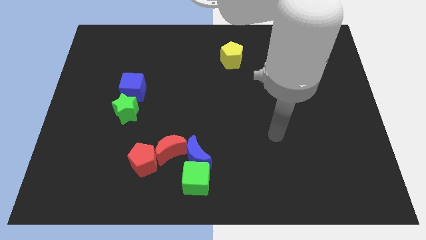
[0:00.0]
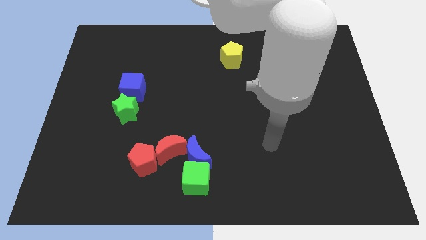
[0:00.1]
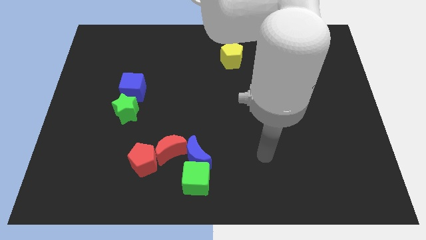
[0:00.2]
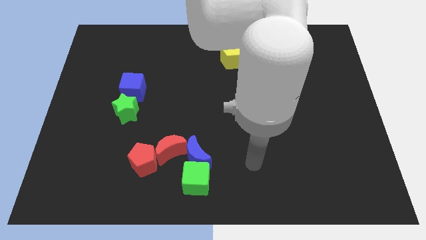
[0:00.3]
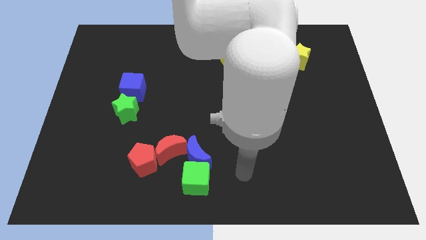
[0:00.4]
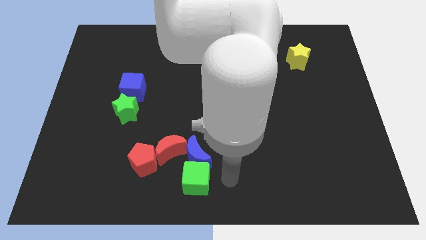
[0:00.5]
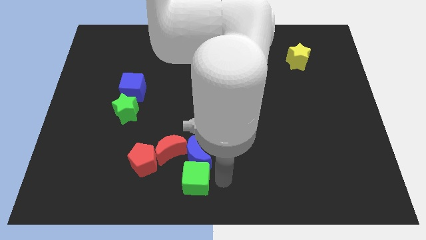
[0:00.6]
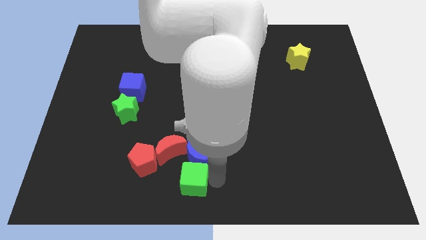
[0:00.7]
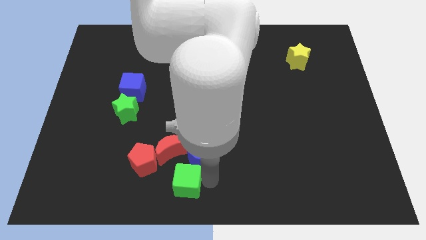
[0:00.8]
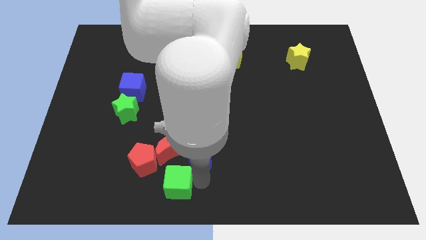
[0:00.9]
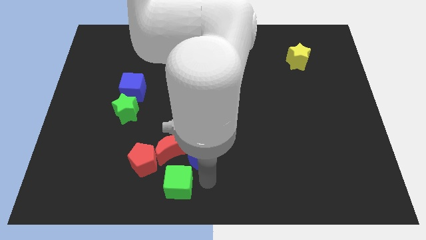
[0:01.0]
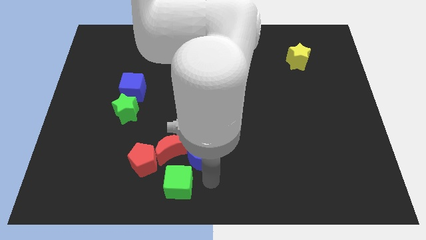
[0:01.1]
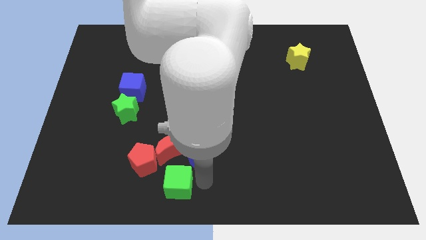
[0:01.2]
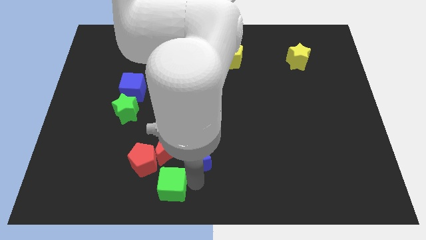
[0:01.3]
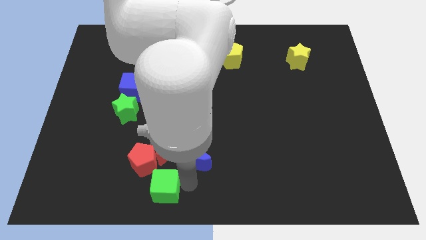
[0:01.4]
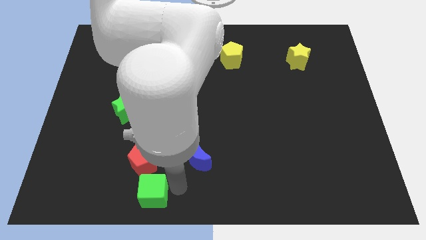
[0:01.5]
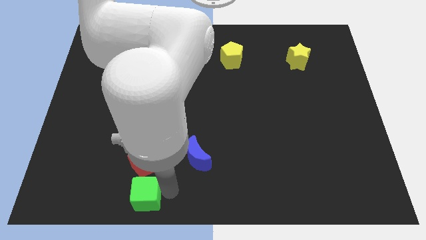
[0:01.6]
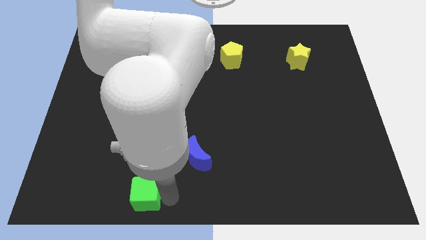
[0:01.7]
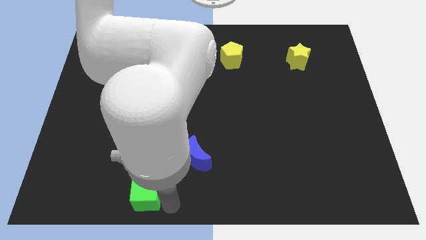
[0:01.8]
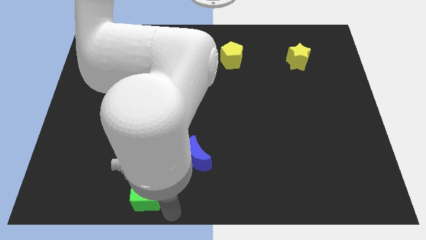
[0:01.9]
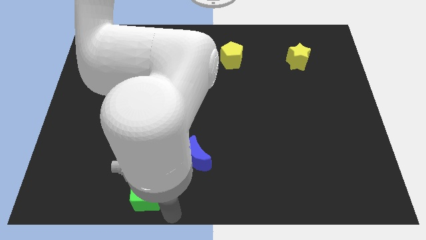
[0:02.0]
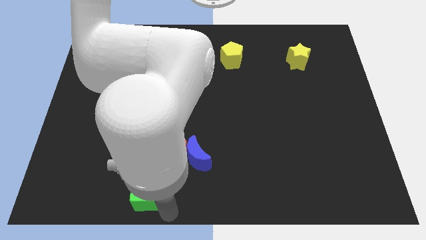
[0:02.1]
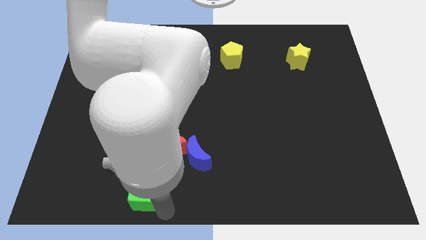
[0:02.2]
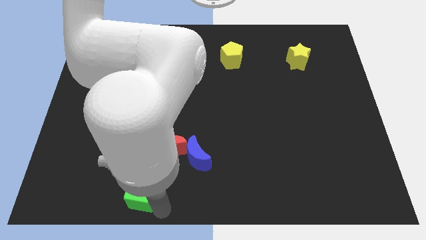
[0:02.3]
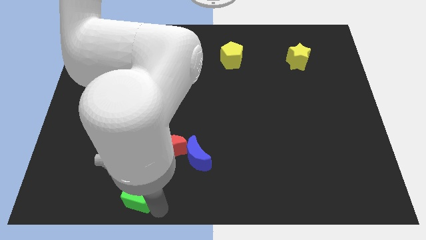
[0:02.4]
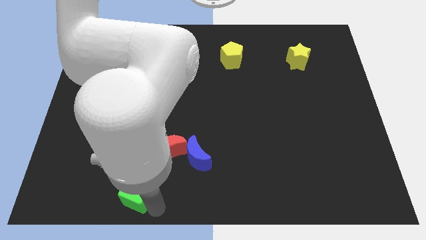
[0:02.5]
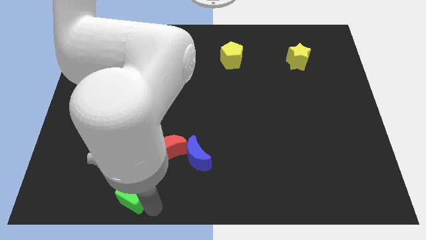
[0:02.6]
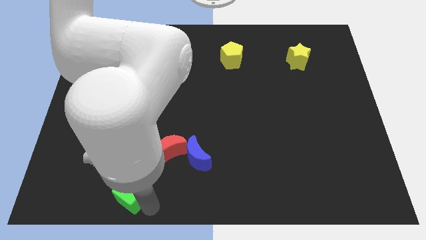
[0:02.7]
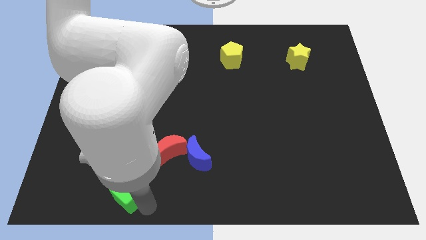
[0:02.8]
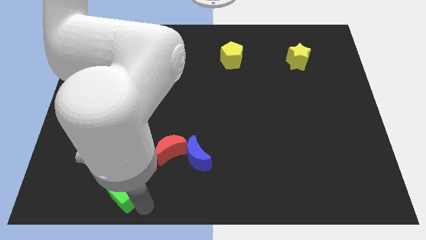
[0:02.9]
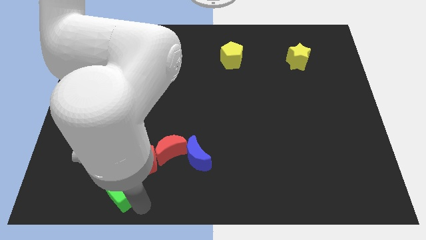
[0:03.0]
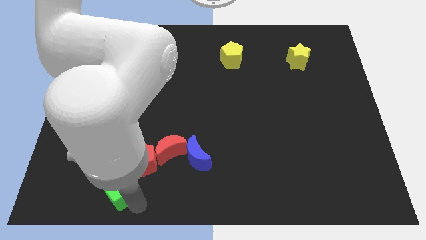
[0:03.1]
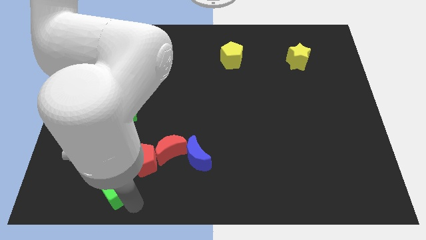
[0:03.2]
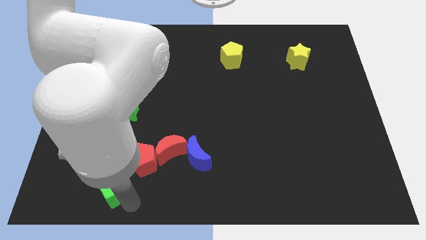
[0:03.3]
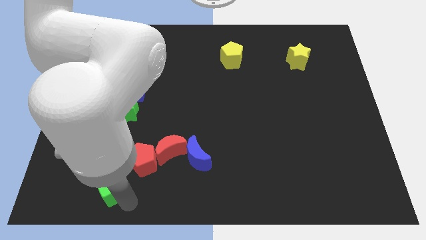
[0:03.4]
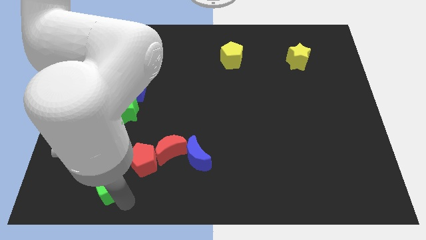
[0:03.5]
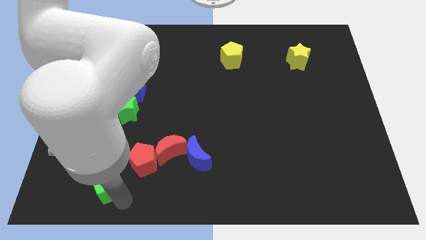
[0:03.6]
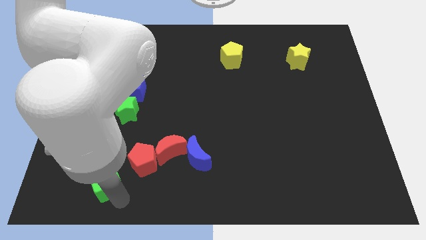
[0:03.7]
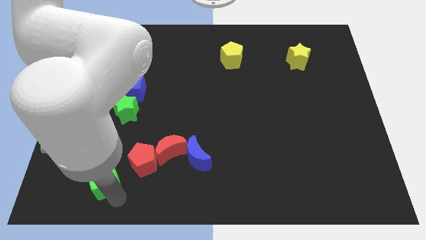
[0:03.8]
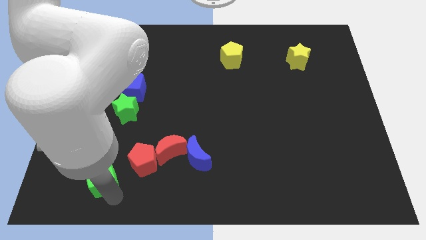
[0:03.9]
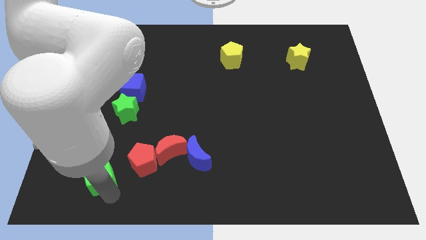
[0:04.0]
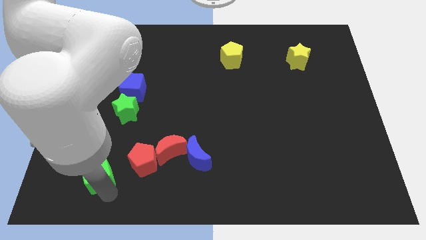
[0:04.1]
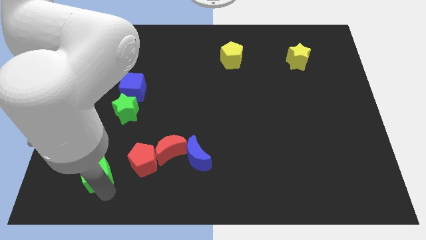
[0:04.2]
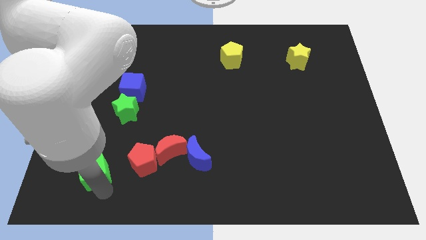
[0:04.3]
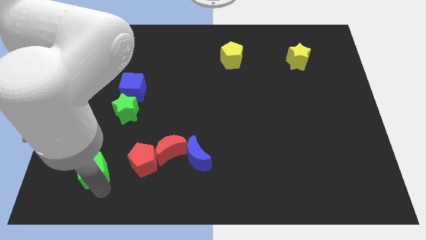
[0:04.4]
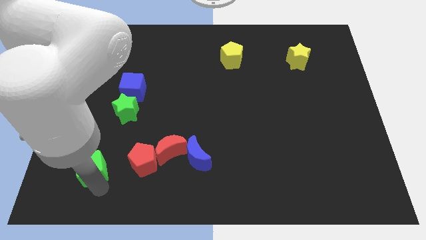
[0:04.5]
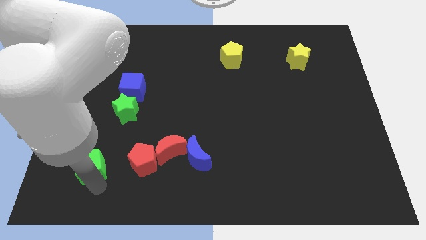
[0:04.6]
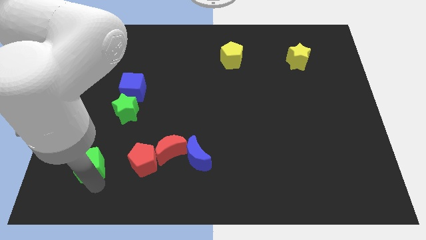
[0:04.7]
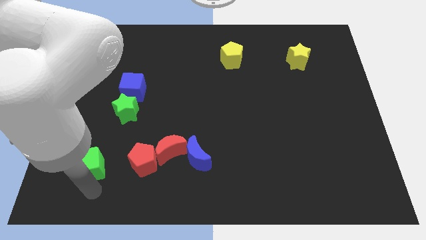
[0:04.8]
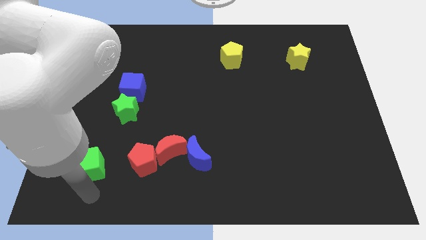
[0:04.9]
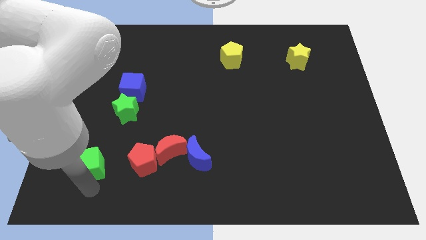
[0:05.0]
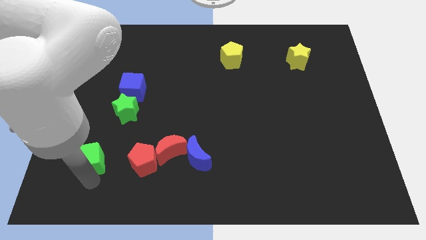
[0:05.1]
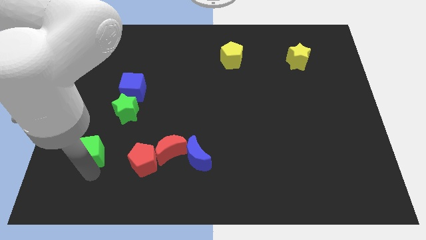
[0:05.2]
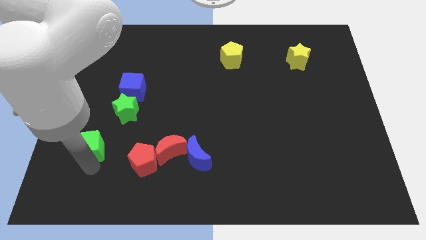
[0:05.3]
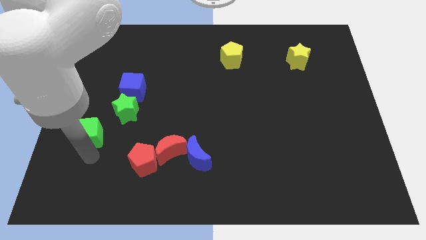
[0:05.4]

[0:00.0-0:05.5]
slide the green cube diagonally up and to the left

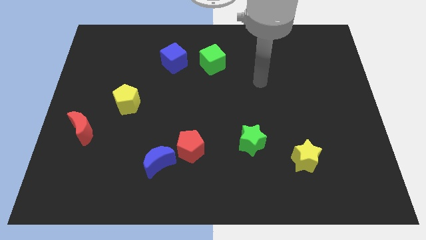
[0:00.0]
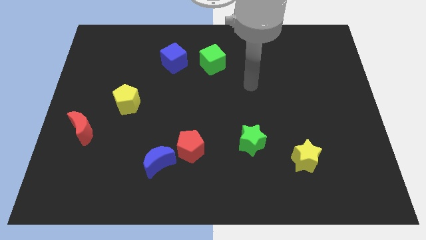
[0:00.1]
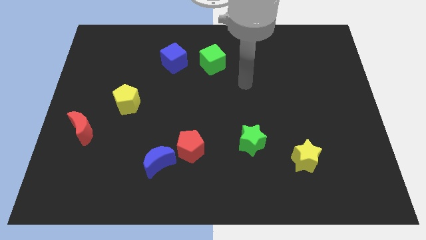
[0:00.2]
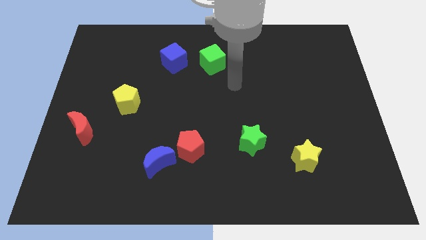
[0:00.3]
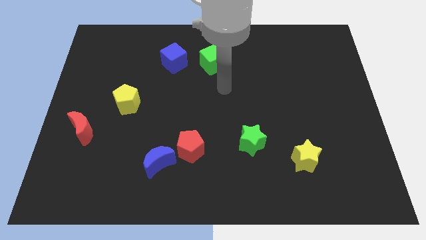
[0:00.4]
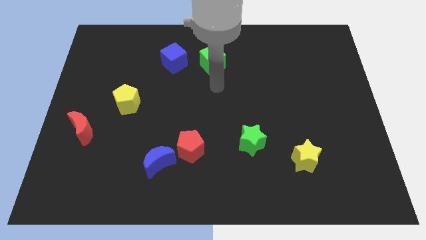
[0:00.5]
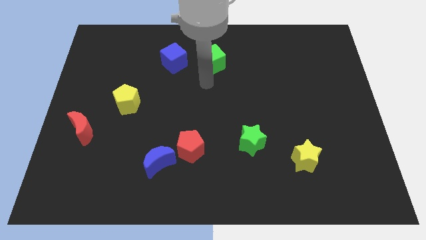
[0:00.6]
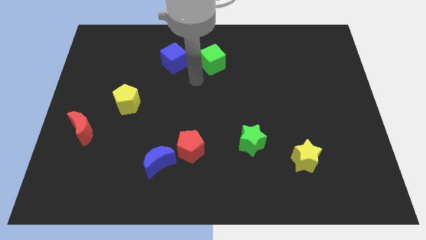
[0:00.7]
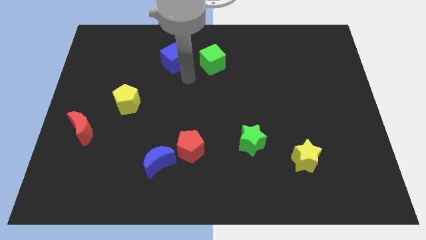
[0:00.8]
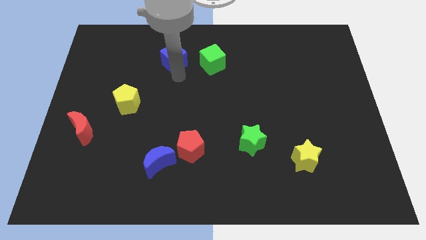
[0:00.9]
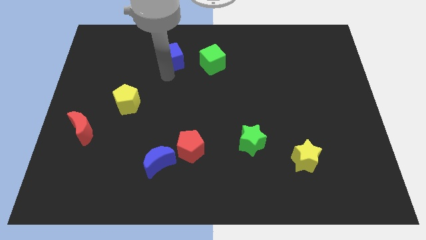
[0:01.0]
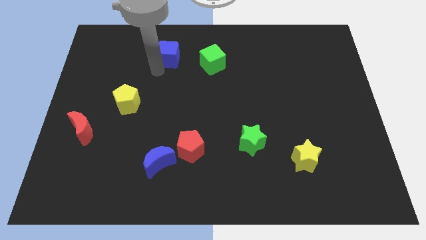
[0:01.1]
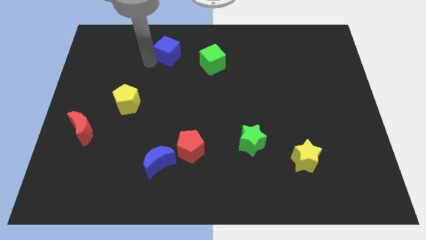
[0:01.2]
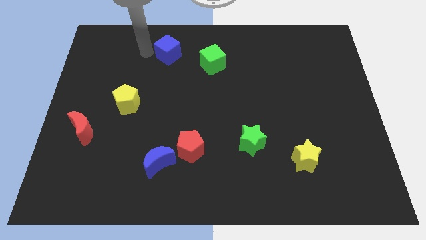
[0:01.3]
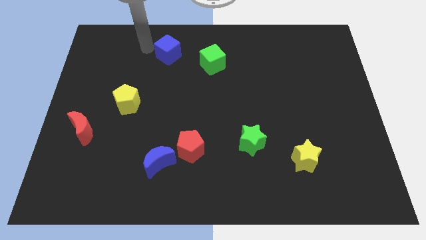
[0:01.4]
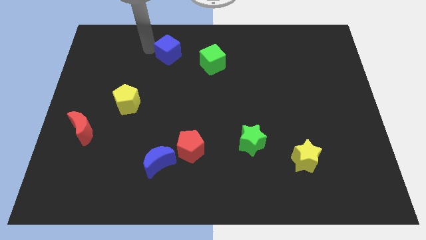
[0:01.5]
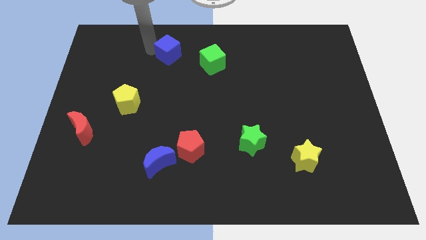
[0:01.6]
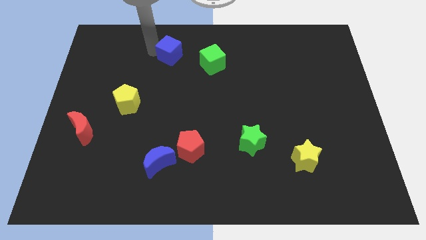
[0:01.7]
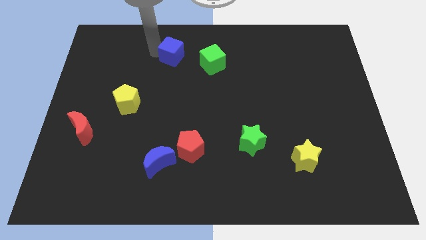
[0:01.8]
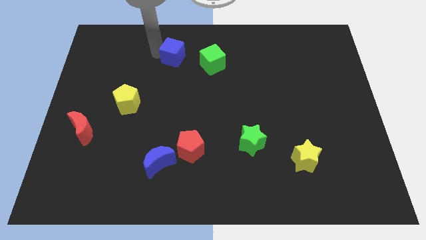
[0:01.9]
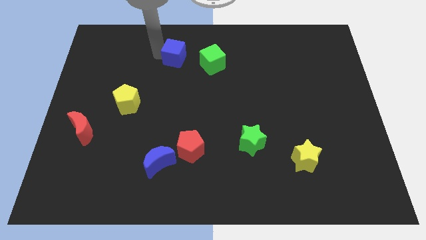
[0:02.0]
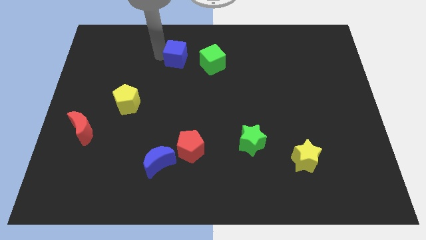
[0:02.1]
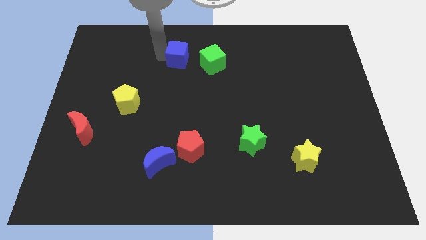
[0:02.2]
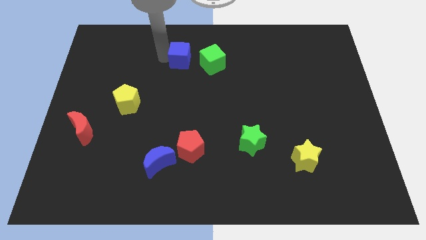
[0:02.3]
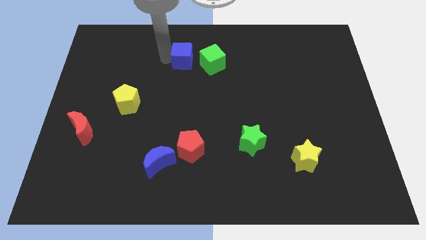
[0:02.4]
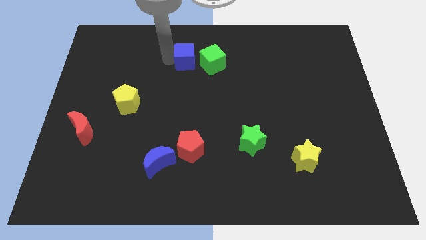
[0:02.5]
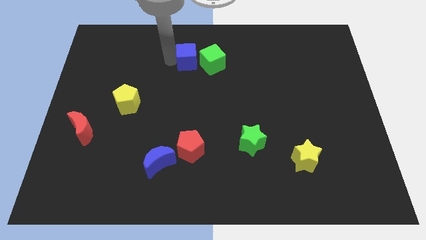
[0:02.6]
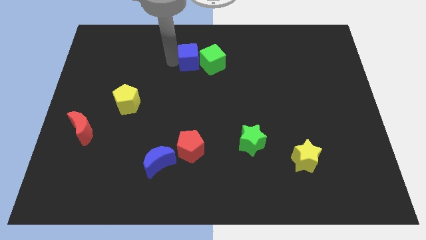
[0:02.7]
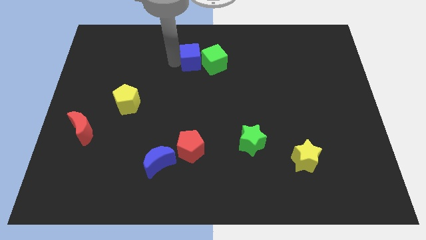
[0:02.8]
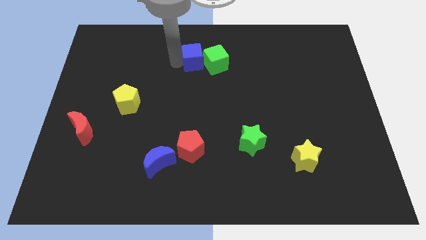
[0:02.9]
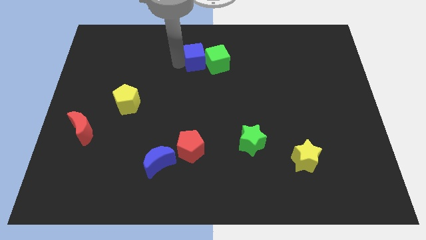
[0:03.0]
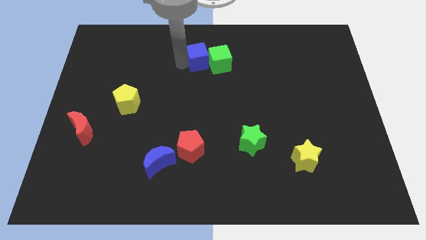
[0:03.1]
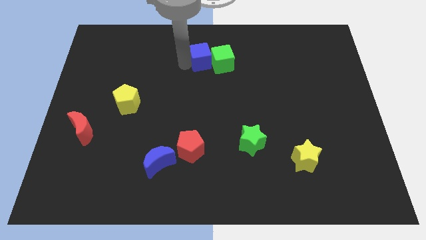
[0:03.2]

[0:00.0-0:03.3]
slide the blue cube slightly right
